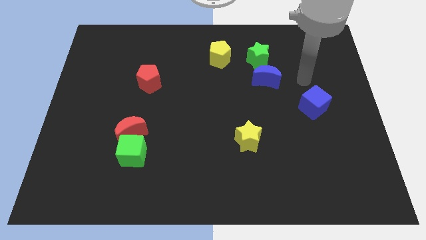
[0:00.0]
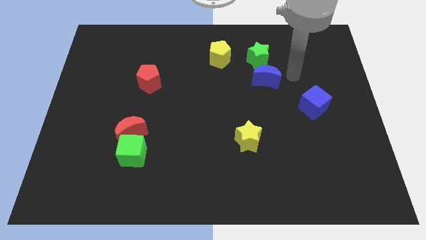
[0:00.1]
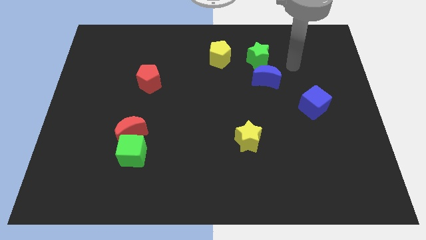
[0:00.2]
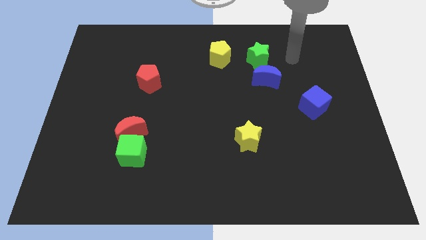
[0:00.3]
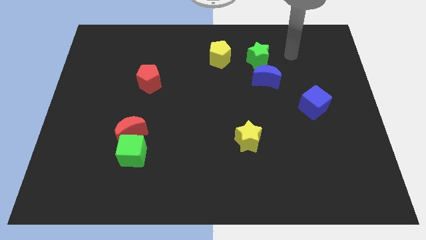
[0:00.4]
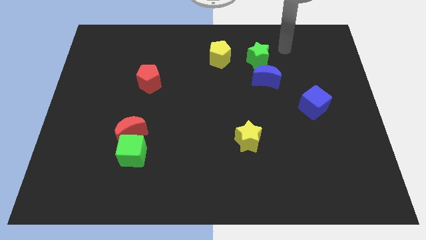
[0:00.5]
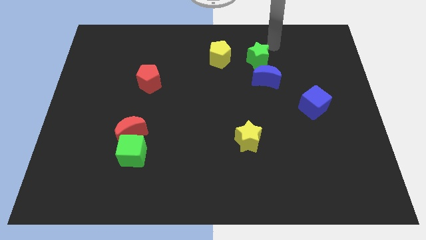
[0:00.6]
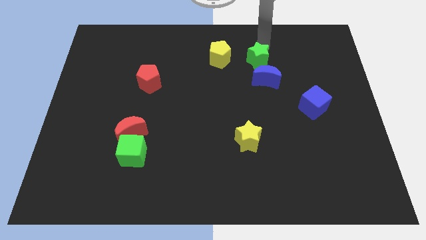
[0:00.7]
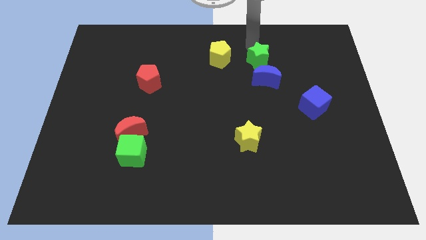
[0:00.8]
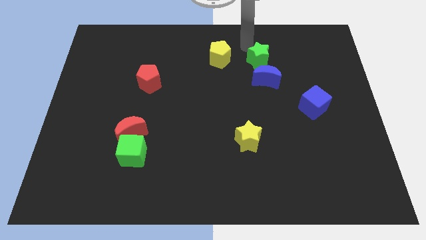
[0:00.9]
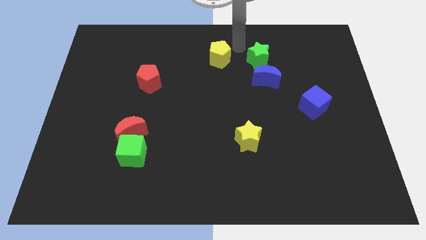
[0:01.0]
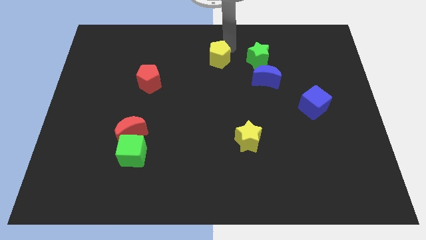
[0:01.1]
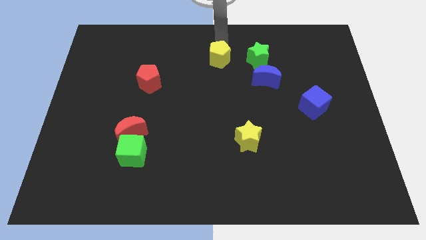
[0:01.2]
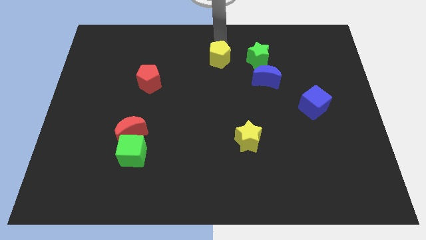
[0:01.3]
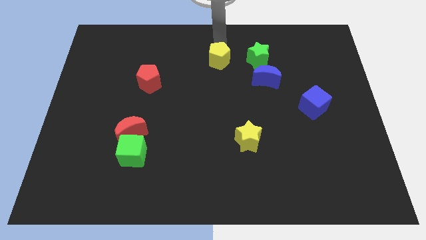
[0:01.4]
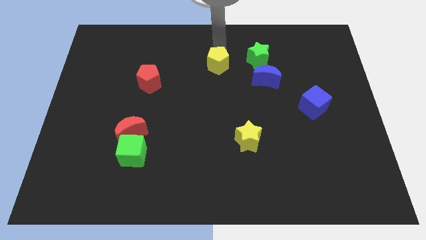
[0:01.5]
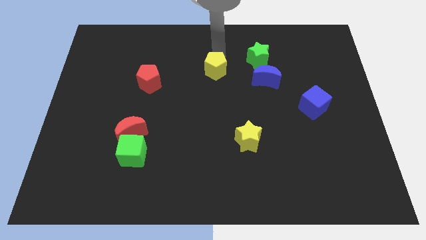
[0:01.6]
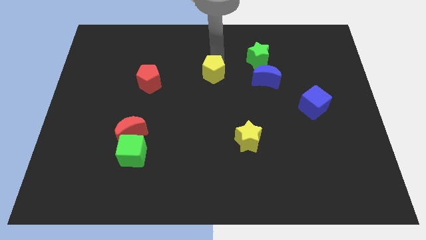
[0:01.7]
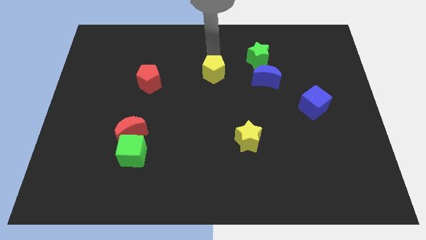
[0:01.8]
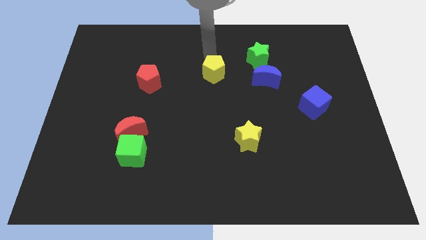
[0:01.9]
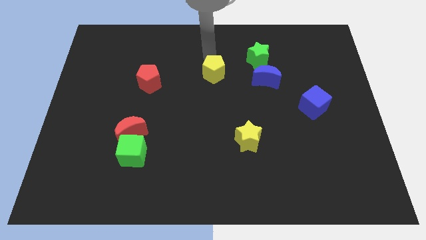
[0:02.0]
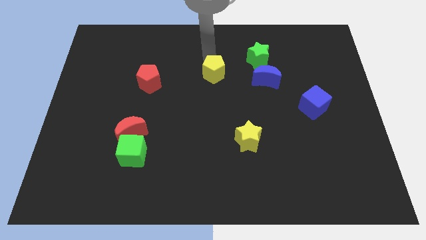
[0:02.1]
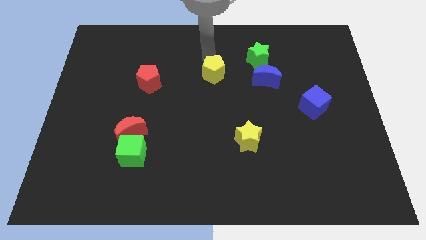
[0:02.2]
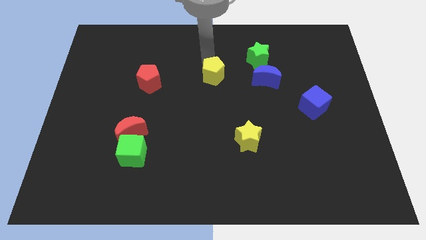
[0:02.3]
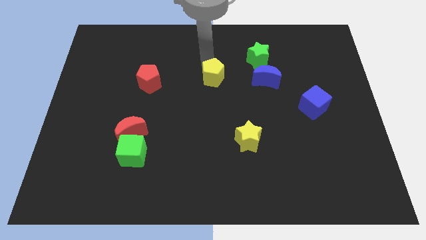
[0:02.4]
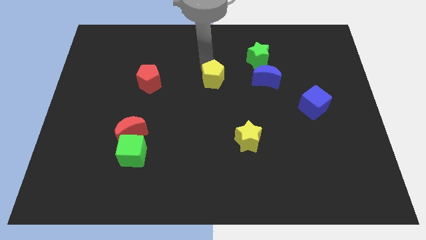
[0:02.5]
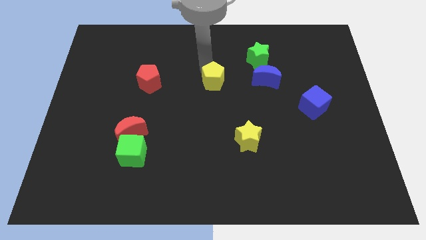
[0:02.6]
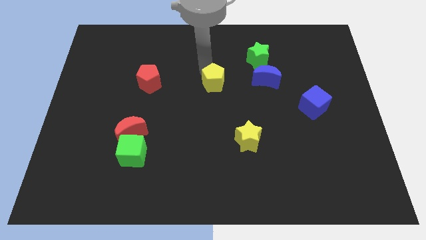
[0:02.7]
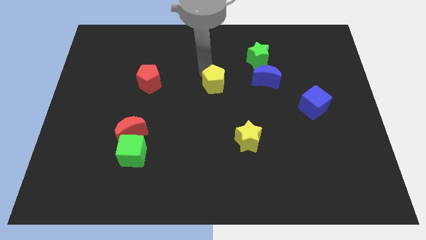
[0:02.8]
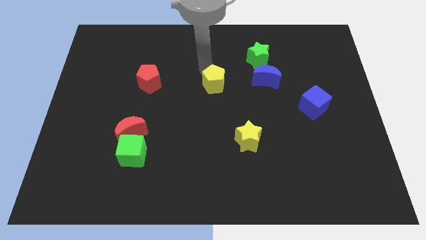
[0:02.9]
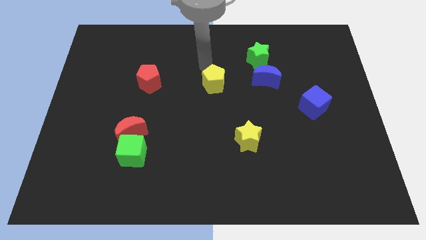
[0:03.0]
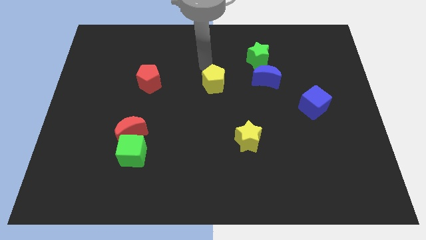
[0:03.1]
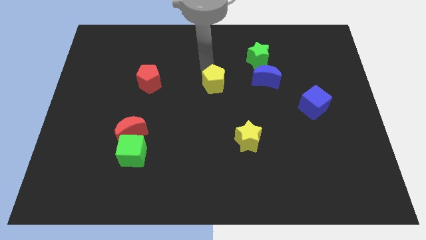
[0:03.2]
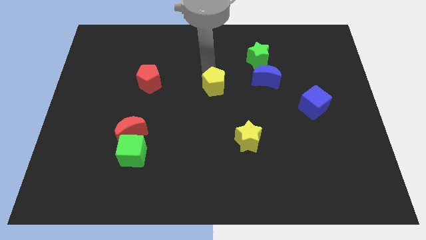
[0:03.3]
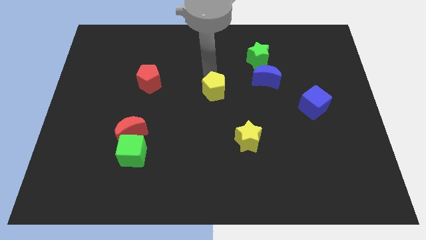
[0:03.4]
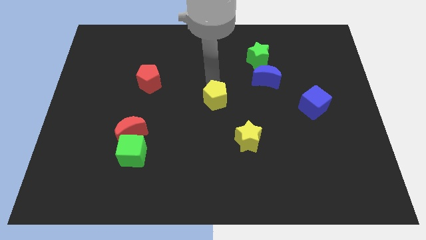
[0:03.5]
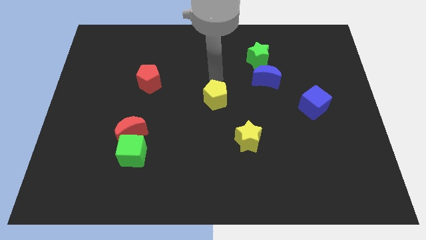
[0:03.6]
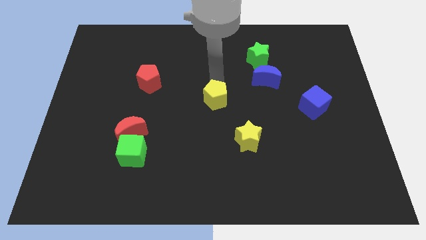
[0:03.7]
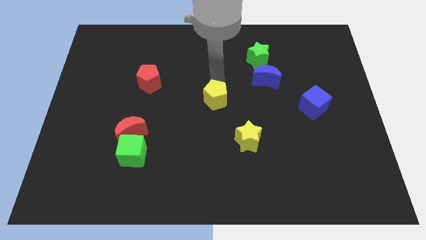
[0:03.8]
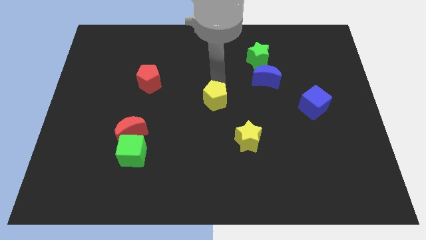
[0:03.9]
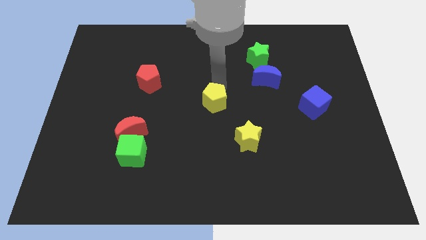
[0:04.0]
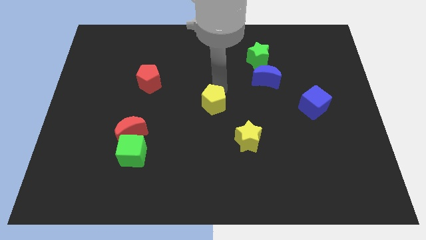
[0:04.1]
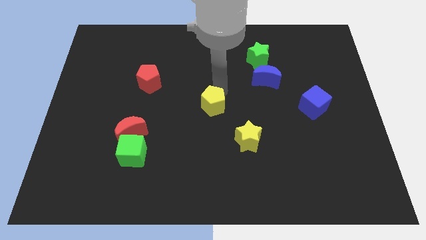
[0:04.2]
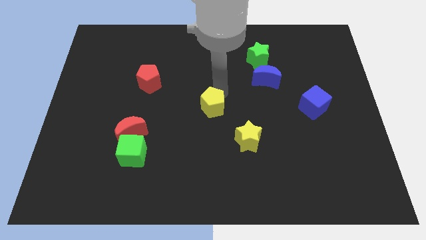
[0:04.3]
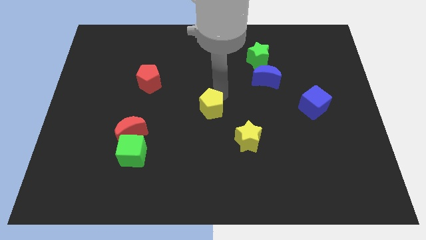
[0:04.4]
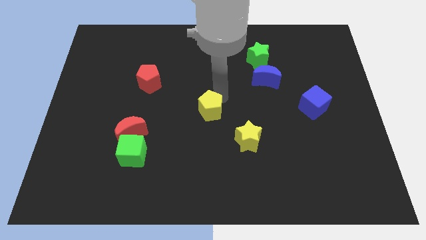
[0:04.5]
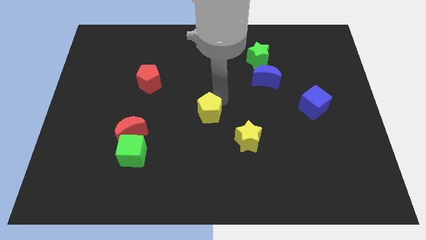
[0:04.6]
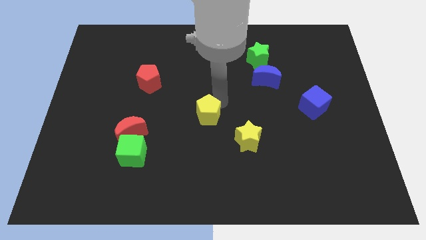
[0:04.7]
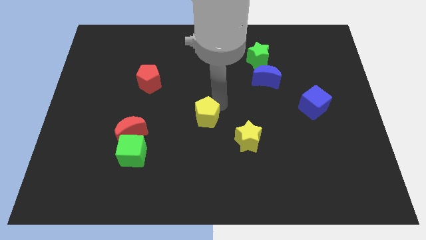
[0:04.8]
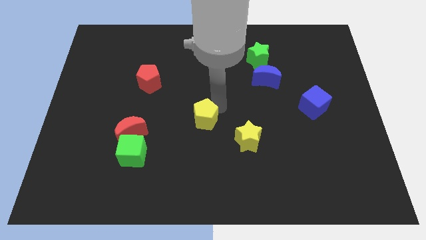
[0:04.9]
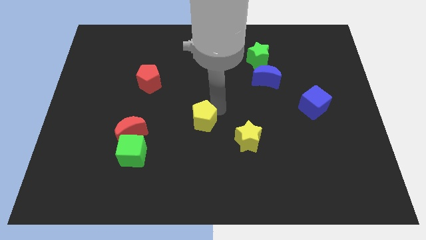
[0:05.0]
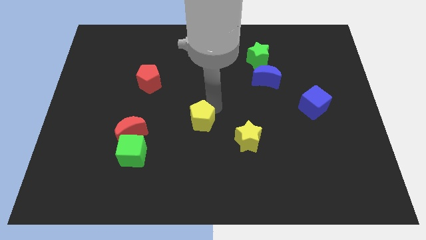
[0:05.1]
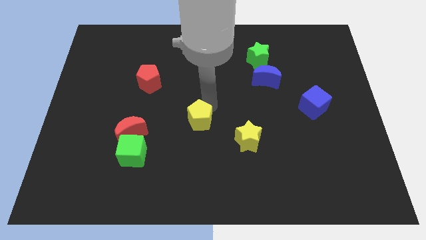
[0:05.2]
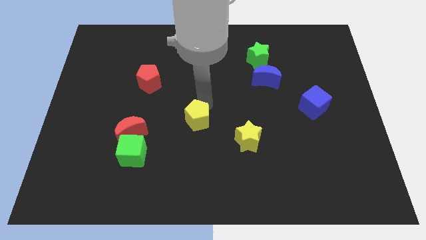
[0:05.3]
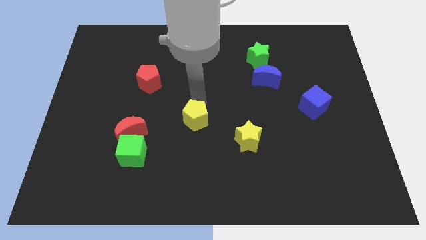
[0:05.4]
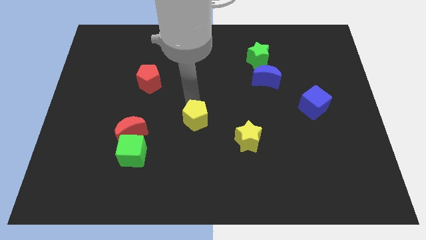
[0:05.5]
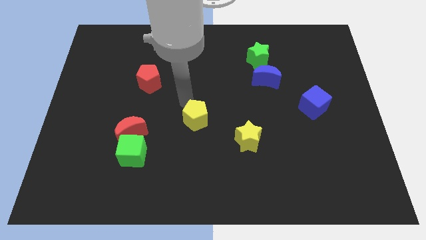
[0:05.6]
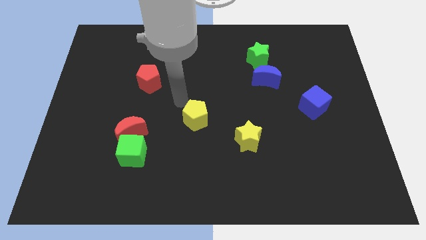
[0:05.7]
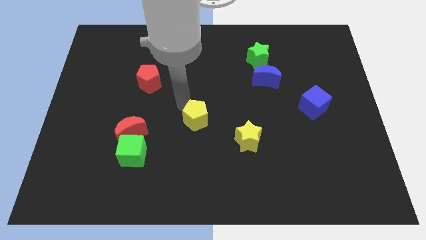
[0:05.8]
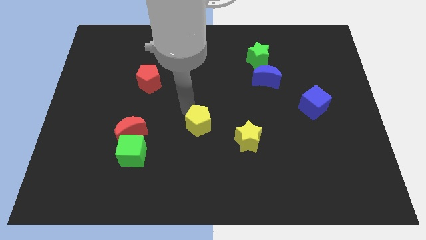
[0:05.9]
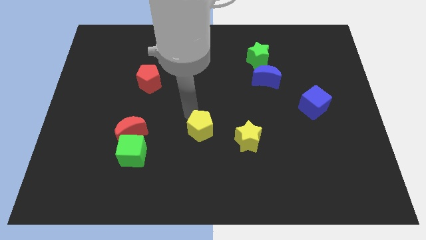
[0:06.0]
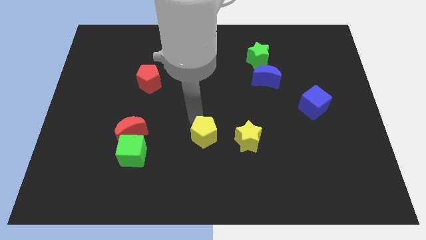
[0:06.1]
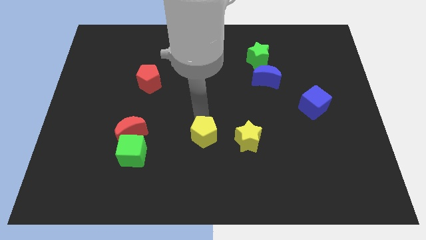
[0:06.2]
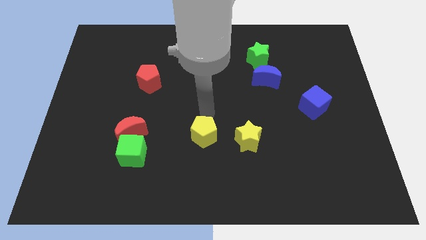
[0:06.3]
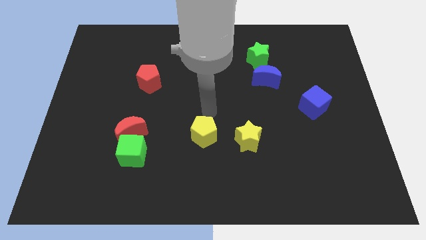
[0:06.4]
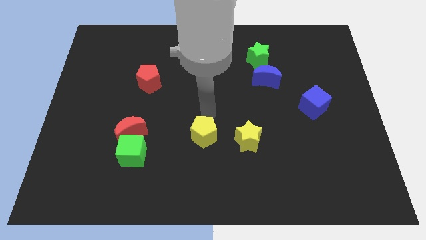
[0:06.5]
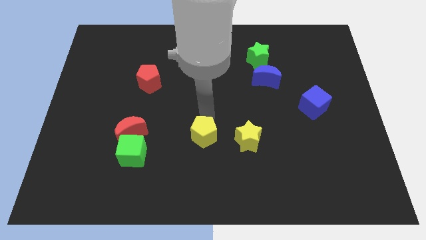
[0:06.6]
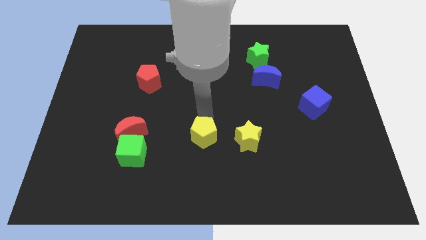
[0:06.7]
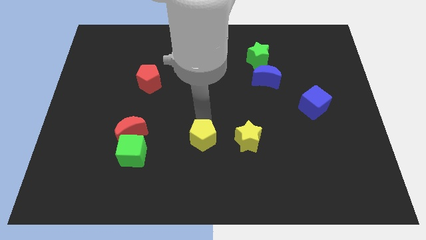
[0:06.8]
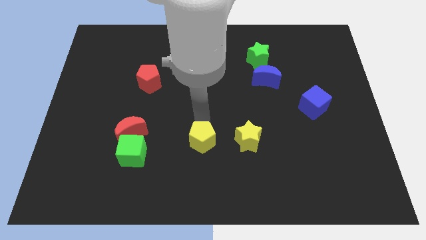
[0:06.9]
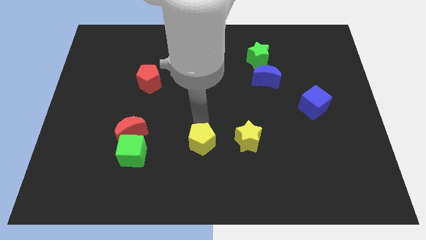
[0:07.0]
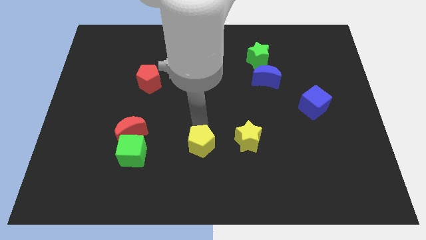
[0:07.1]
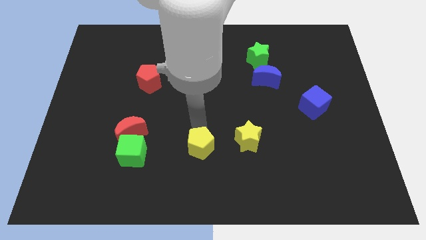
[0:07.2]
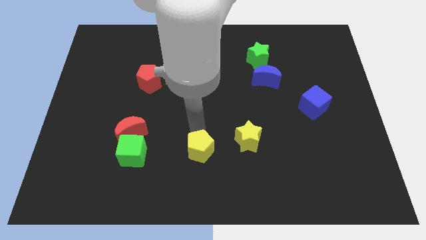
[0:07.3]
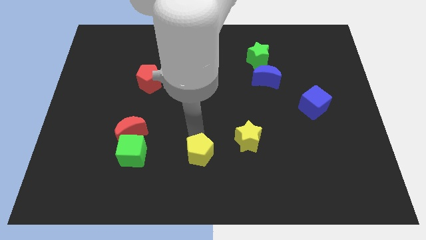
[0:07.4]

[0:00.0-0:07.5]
put the yellow pentagon to the bottom side
